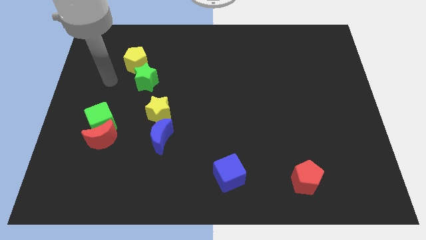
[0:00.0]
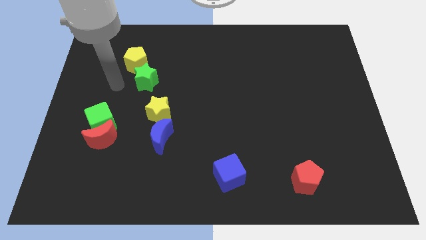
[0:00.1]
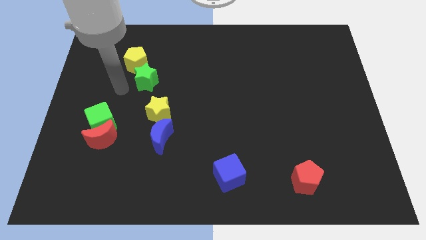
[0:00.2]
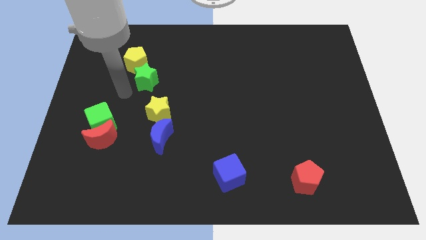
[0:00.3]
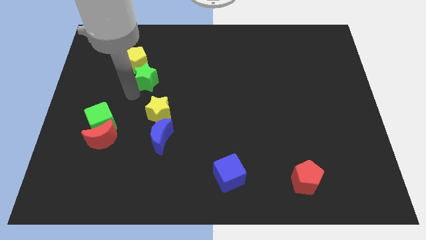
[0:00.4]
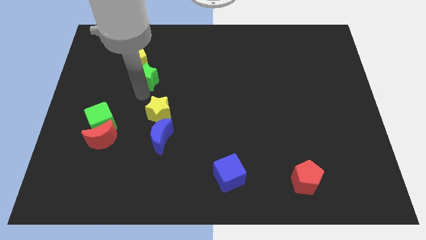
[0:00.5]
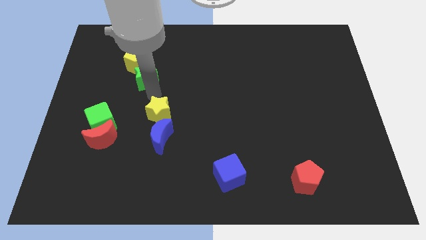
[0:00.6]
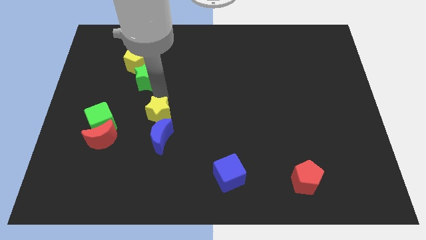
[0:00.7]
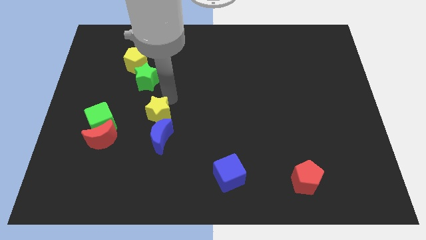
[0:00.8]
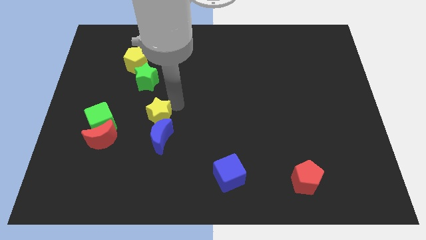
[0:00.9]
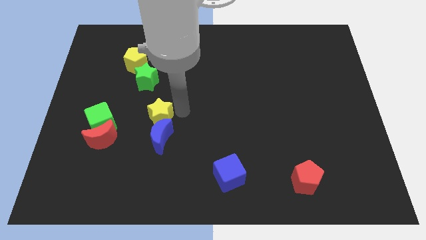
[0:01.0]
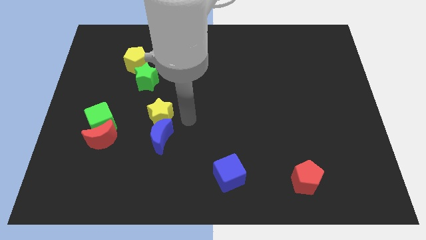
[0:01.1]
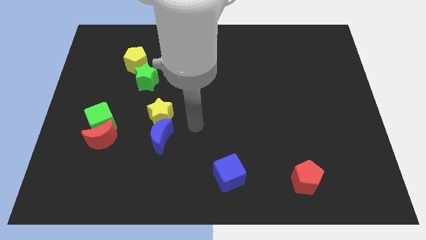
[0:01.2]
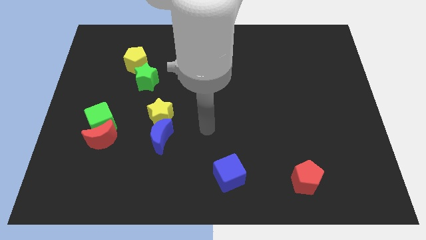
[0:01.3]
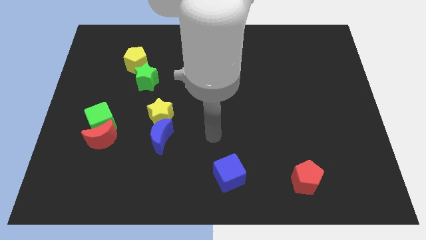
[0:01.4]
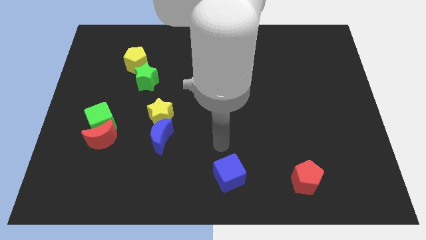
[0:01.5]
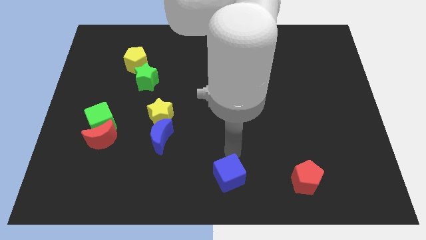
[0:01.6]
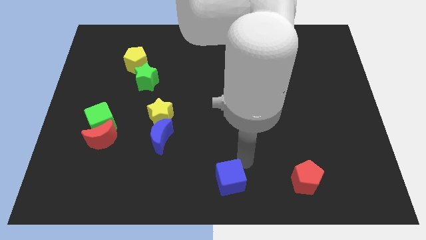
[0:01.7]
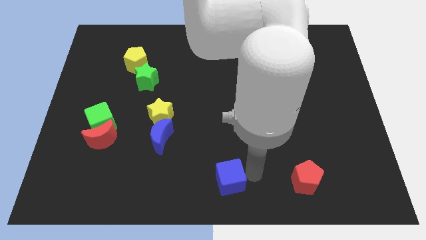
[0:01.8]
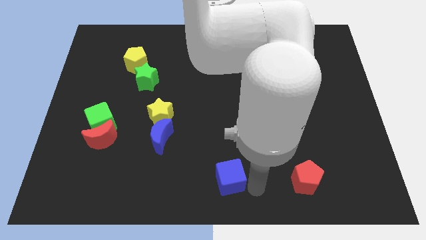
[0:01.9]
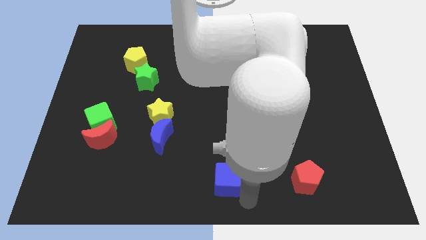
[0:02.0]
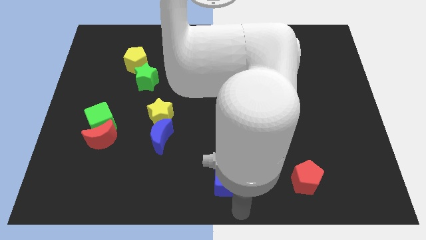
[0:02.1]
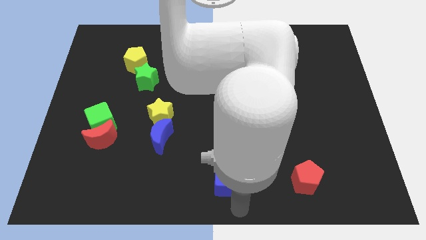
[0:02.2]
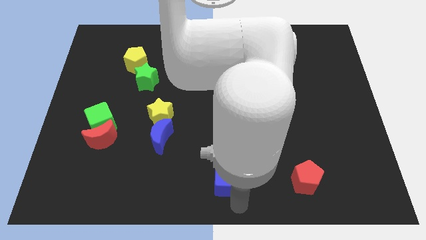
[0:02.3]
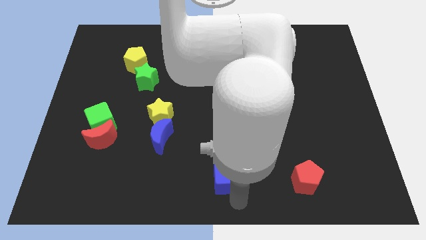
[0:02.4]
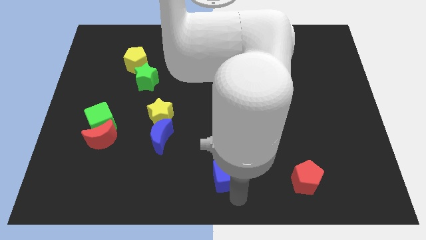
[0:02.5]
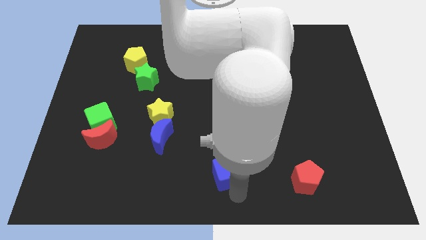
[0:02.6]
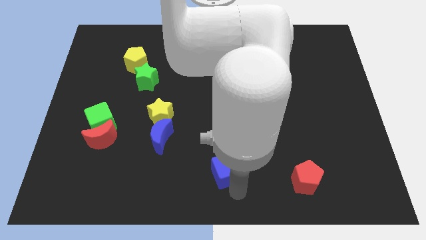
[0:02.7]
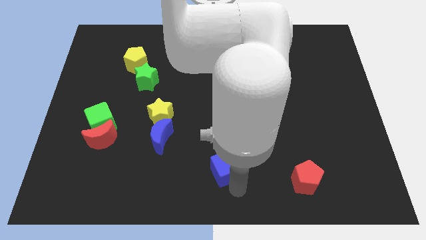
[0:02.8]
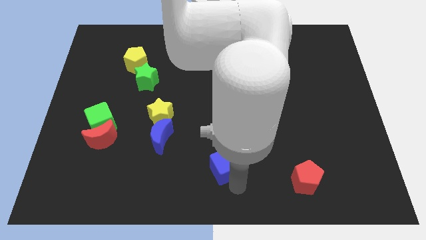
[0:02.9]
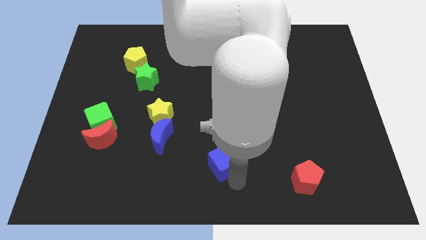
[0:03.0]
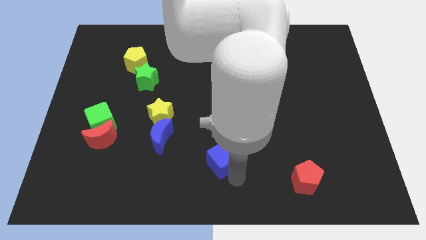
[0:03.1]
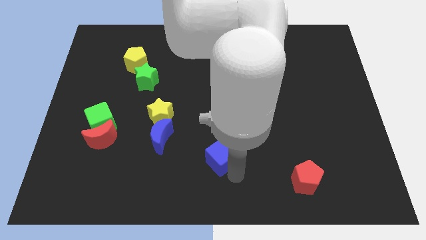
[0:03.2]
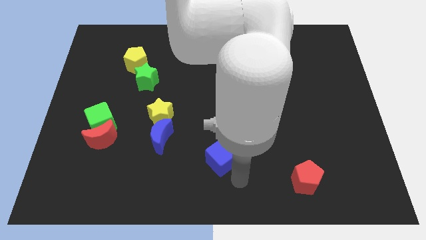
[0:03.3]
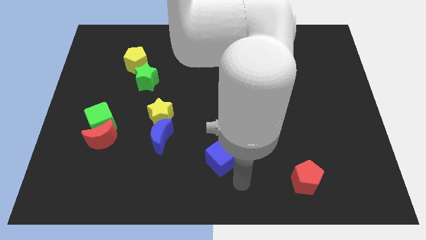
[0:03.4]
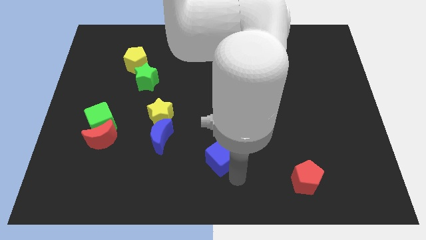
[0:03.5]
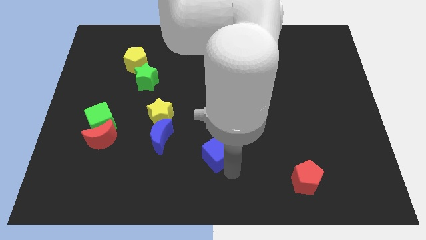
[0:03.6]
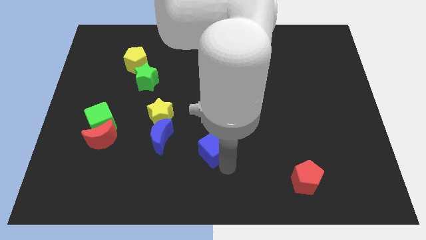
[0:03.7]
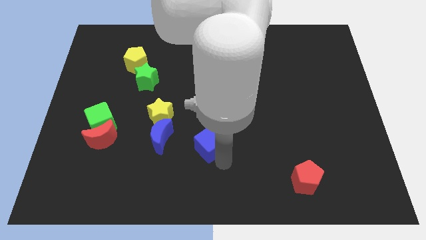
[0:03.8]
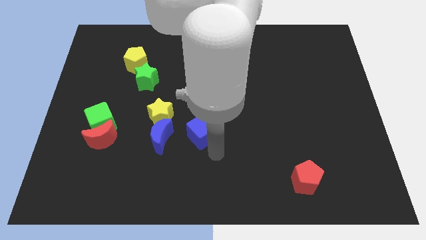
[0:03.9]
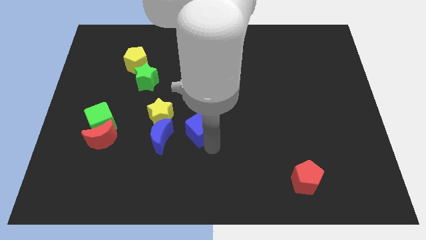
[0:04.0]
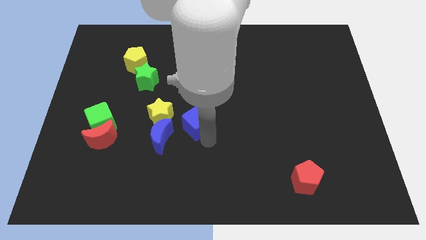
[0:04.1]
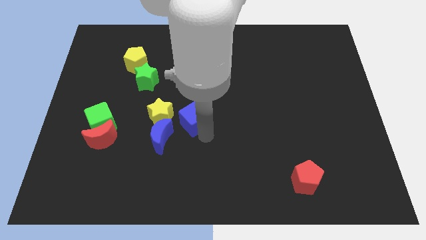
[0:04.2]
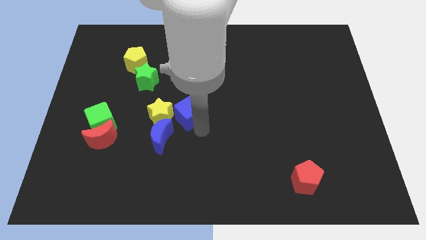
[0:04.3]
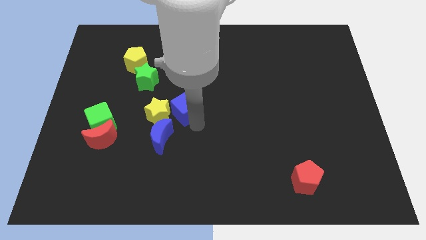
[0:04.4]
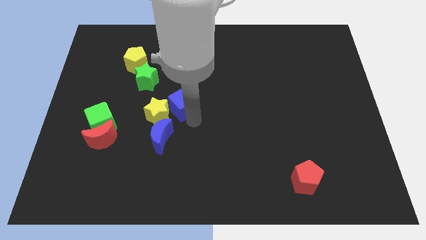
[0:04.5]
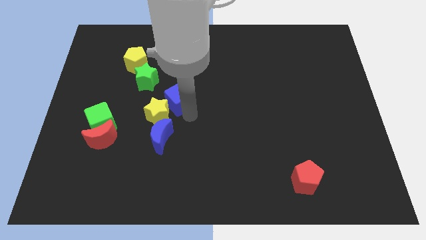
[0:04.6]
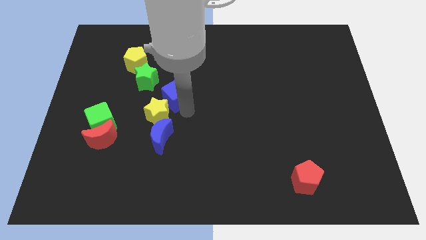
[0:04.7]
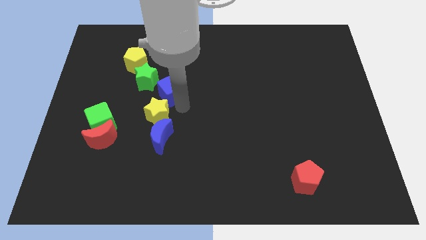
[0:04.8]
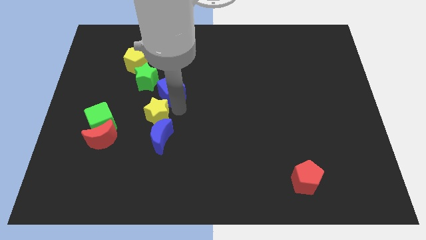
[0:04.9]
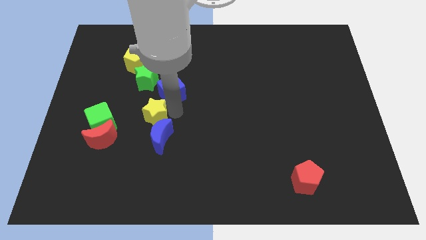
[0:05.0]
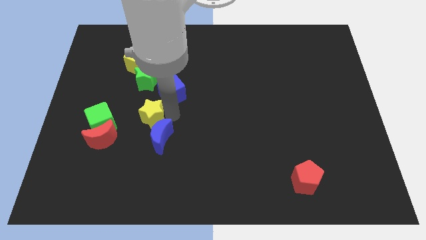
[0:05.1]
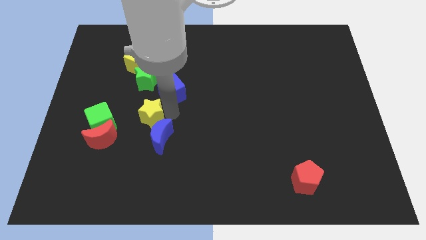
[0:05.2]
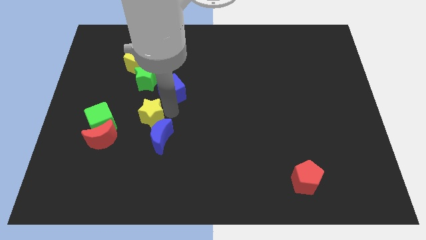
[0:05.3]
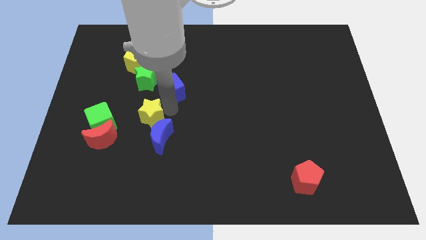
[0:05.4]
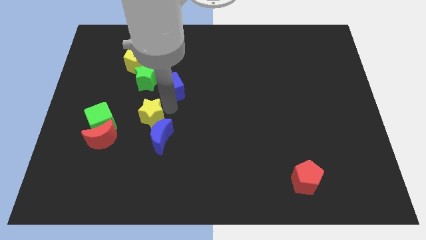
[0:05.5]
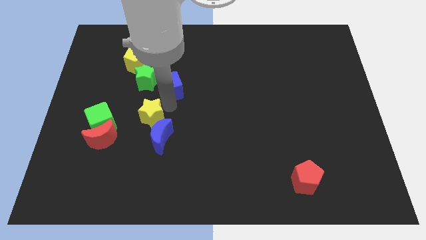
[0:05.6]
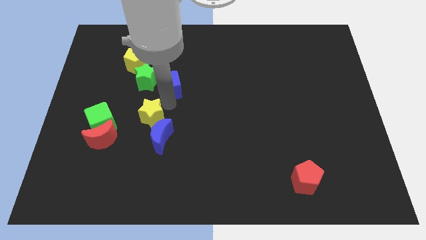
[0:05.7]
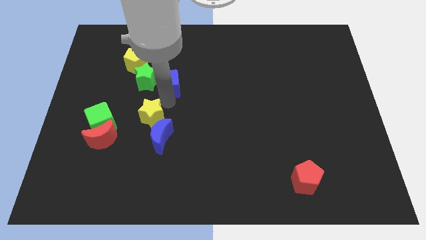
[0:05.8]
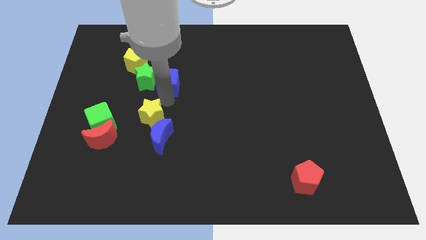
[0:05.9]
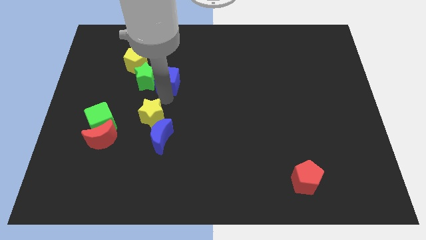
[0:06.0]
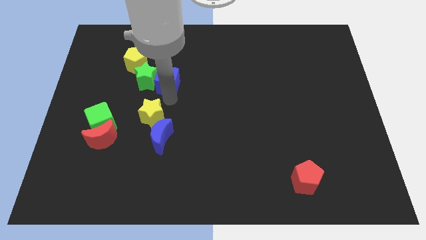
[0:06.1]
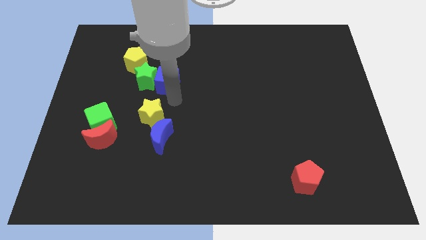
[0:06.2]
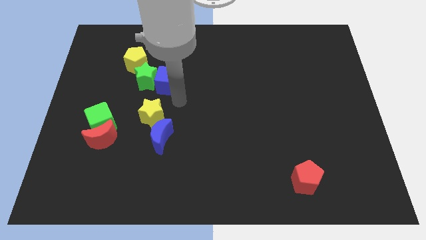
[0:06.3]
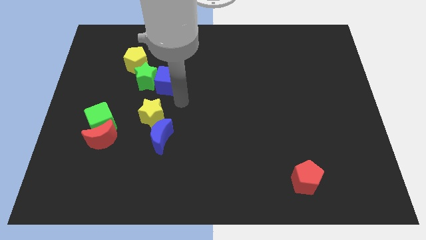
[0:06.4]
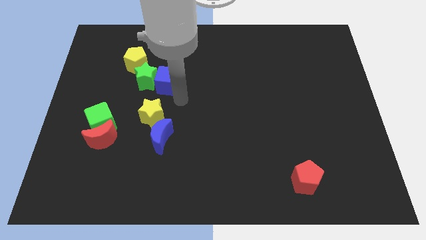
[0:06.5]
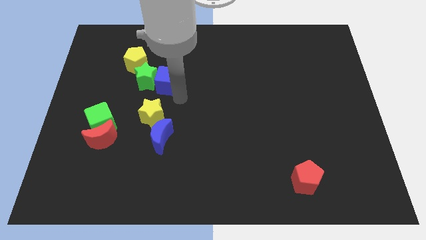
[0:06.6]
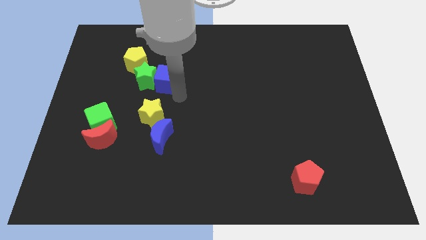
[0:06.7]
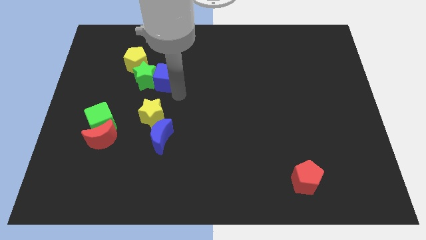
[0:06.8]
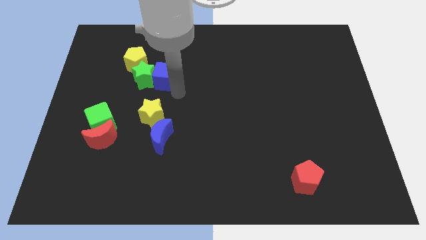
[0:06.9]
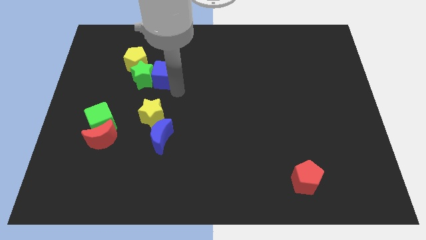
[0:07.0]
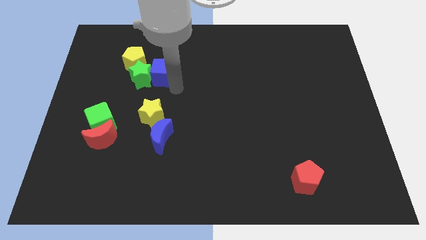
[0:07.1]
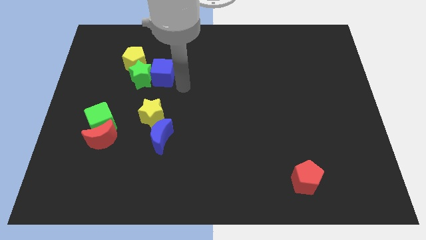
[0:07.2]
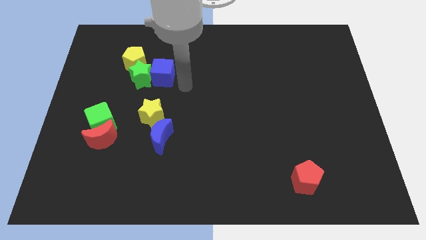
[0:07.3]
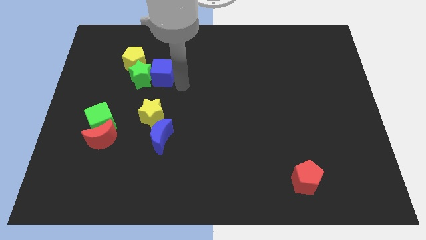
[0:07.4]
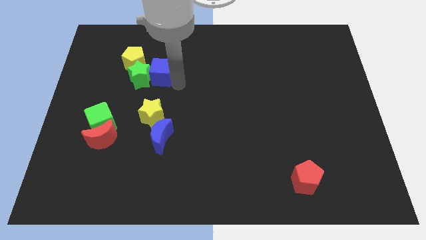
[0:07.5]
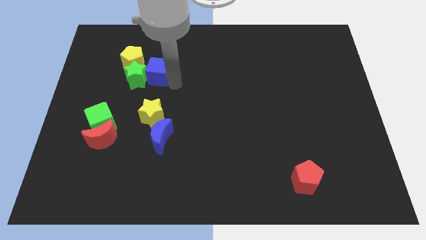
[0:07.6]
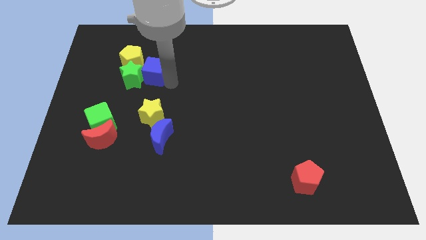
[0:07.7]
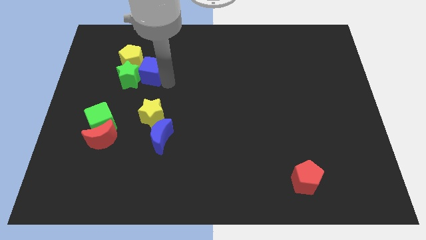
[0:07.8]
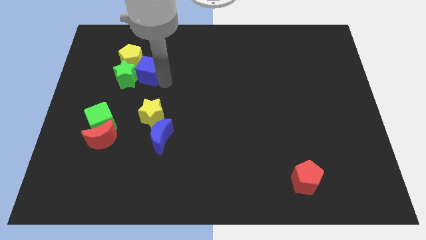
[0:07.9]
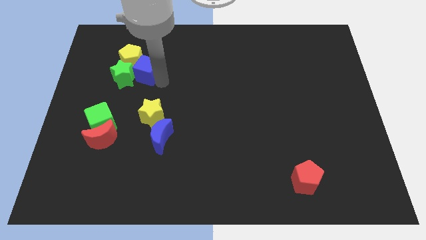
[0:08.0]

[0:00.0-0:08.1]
slide the blue cube close to the yellow pentagon
